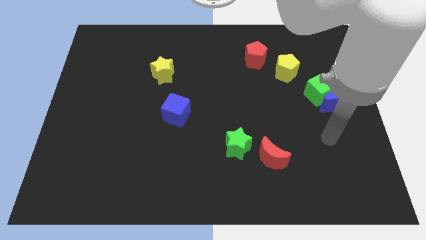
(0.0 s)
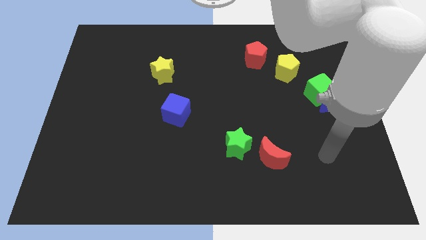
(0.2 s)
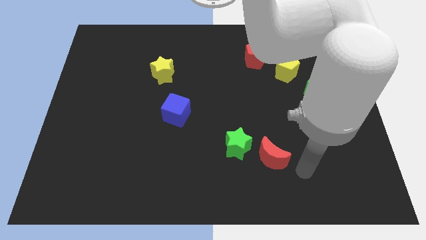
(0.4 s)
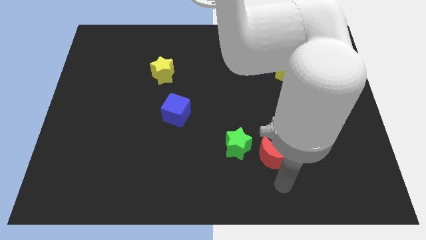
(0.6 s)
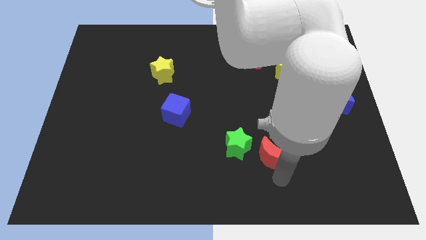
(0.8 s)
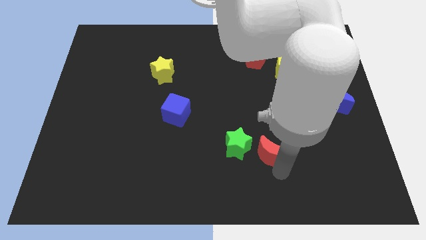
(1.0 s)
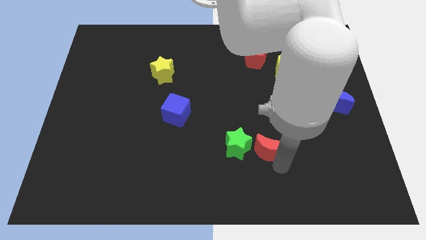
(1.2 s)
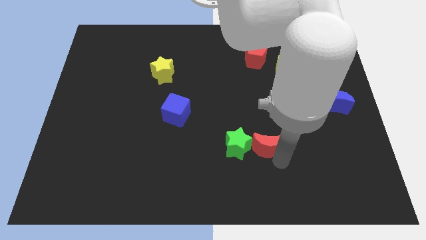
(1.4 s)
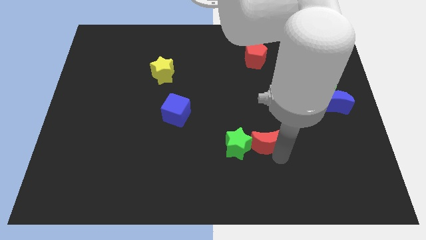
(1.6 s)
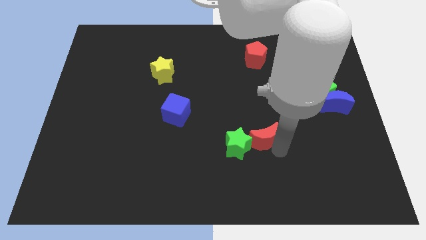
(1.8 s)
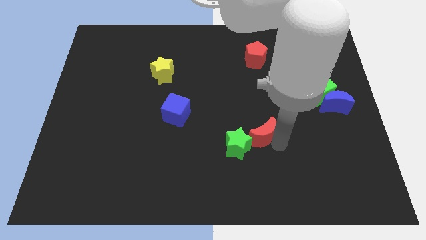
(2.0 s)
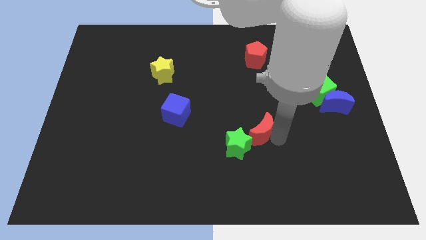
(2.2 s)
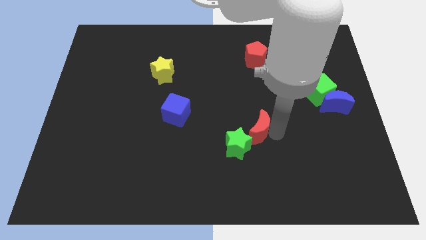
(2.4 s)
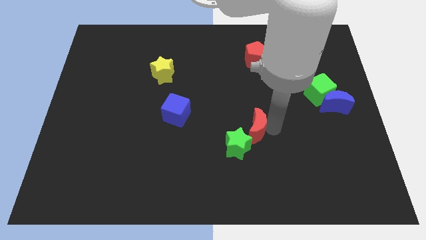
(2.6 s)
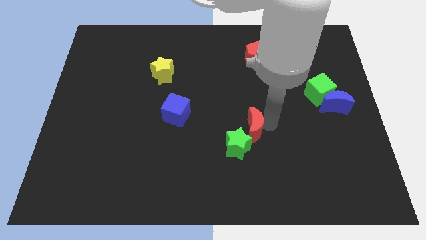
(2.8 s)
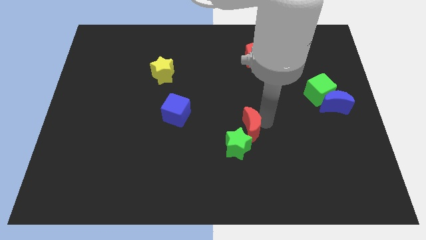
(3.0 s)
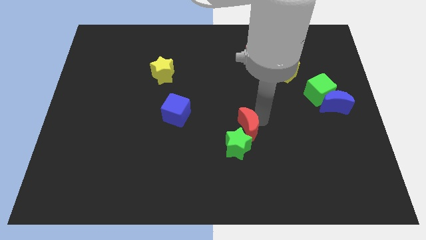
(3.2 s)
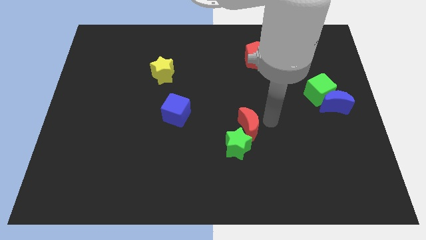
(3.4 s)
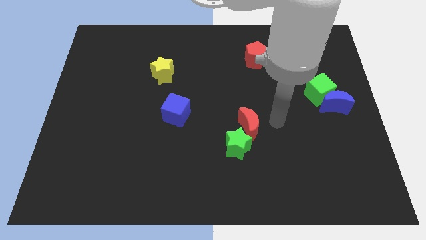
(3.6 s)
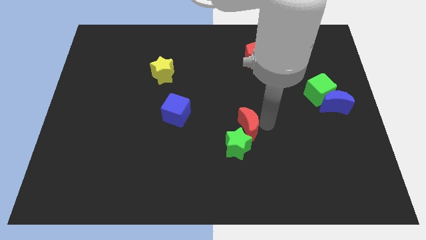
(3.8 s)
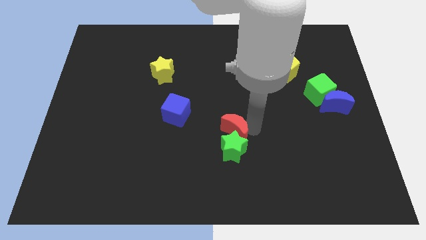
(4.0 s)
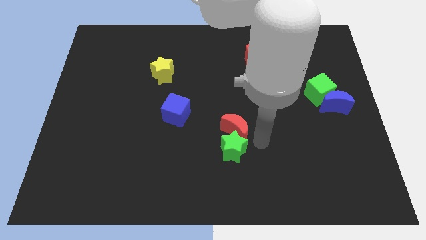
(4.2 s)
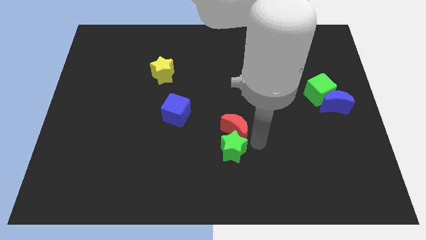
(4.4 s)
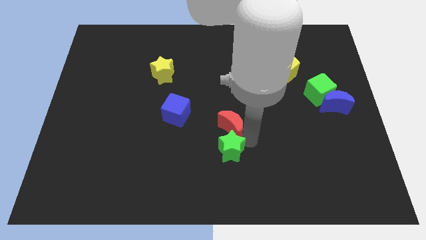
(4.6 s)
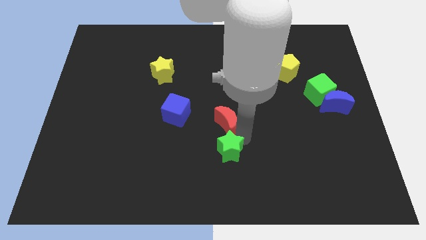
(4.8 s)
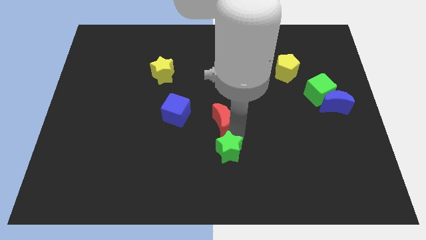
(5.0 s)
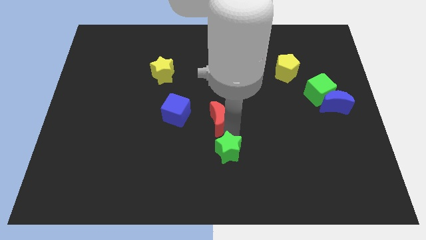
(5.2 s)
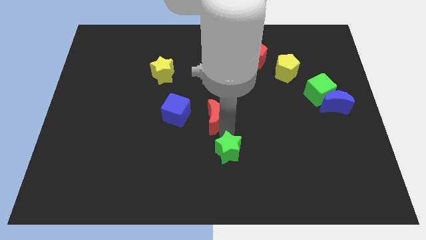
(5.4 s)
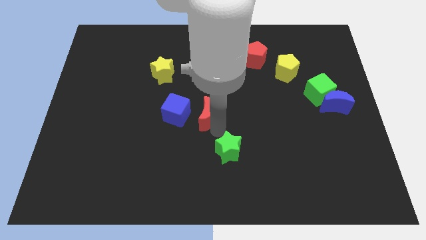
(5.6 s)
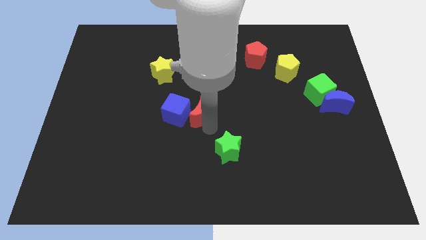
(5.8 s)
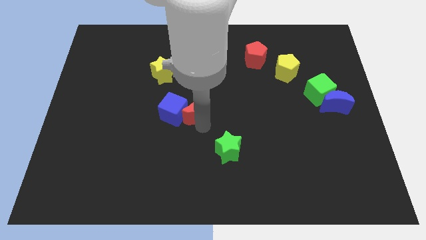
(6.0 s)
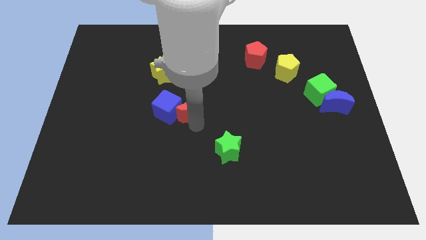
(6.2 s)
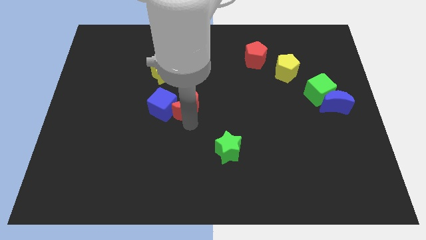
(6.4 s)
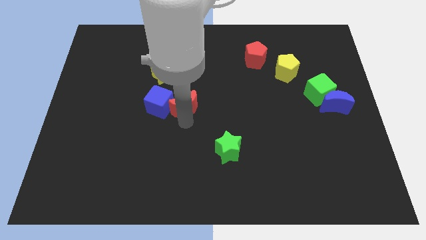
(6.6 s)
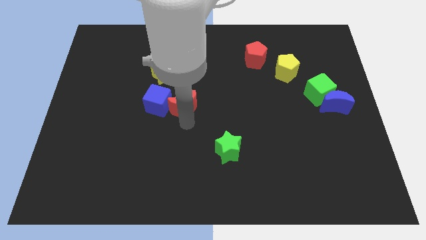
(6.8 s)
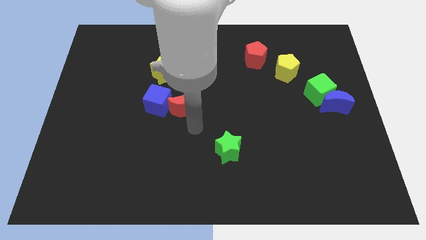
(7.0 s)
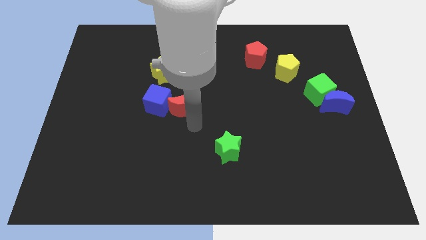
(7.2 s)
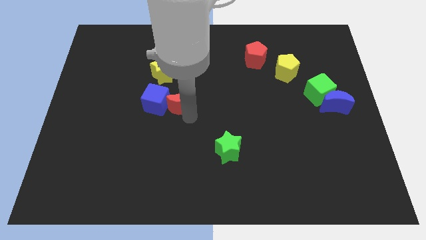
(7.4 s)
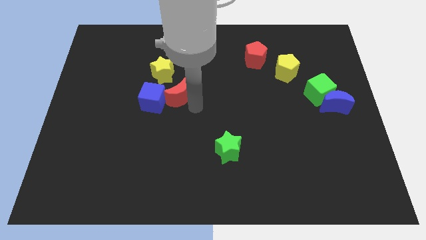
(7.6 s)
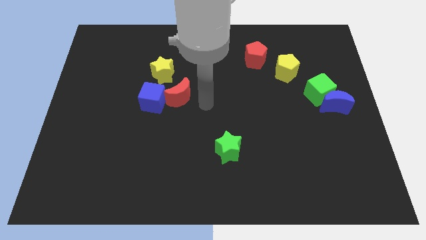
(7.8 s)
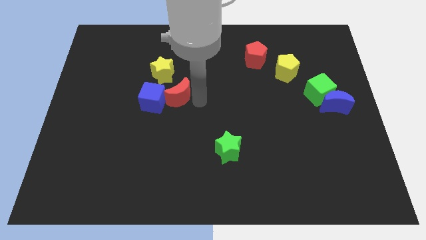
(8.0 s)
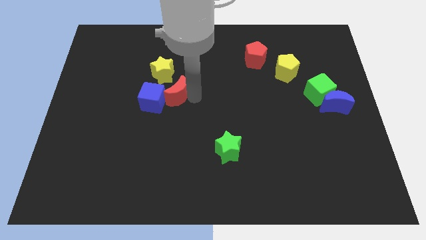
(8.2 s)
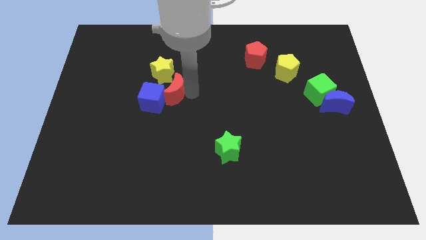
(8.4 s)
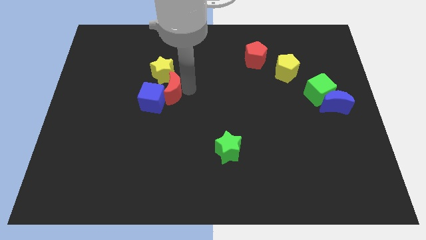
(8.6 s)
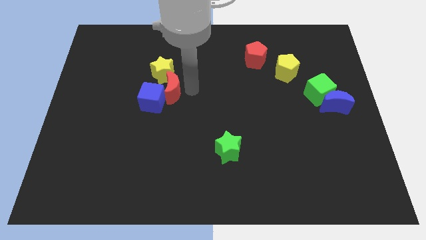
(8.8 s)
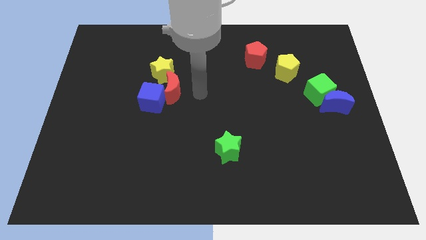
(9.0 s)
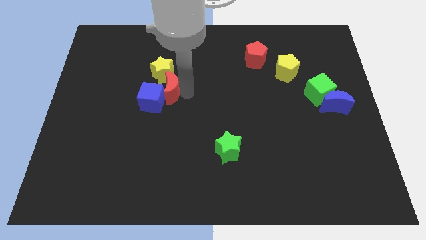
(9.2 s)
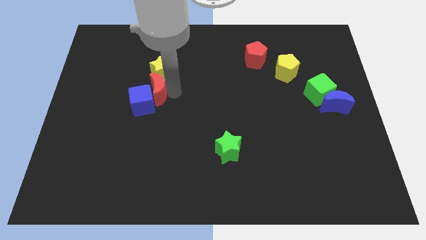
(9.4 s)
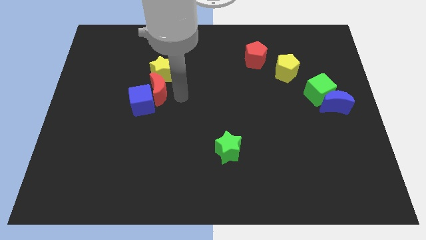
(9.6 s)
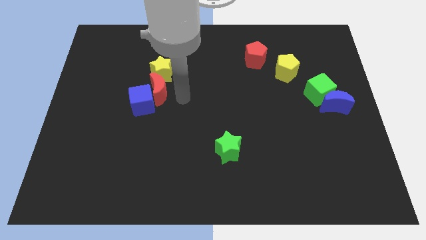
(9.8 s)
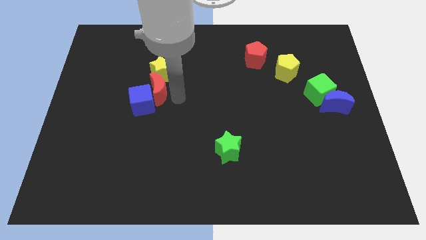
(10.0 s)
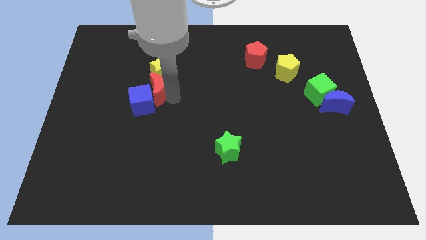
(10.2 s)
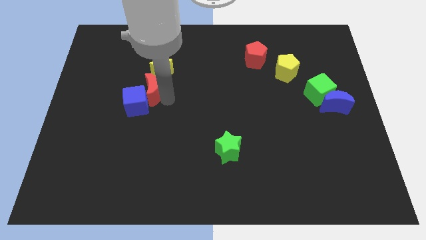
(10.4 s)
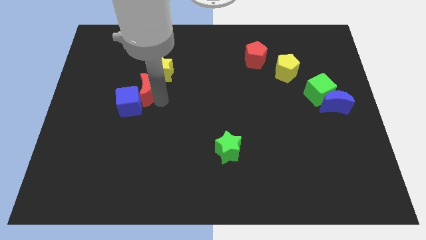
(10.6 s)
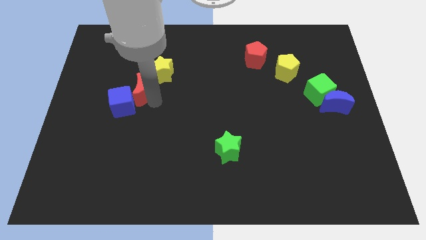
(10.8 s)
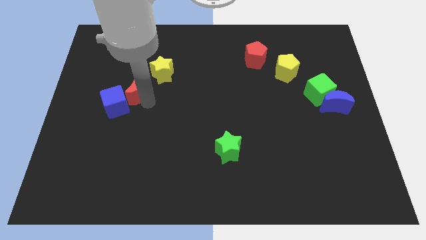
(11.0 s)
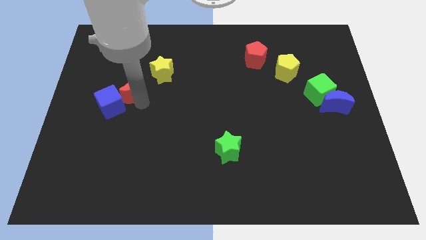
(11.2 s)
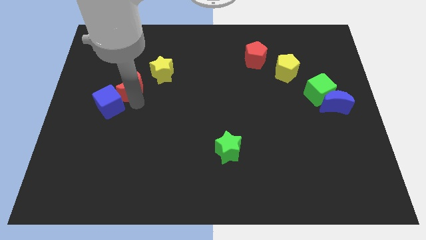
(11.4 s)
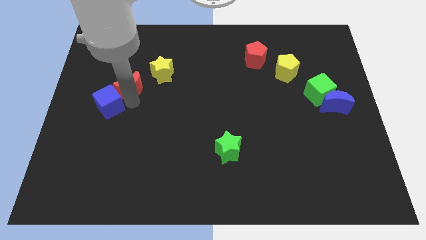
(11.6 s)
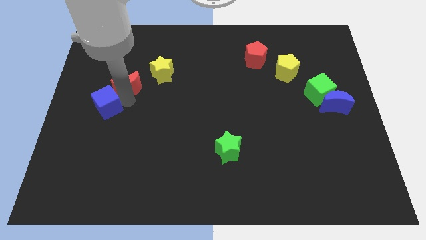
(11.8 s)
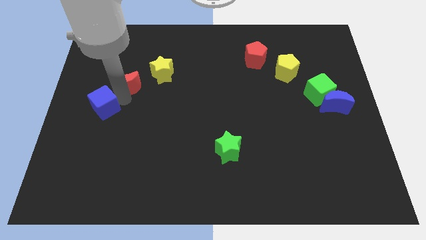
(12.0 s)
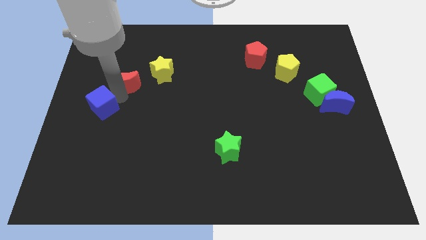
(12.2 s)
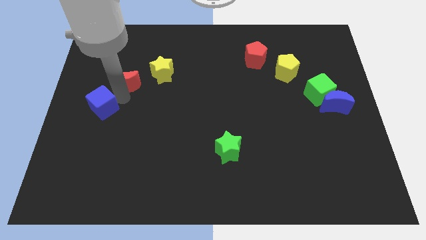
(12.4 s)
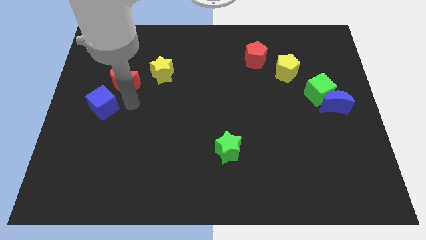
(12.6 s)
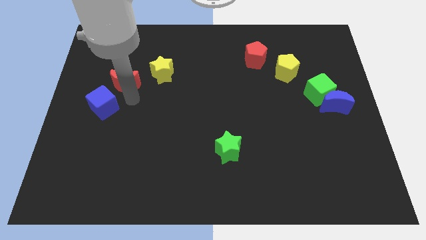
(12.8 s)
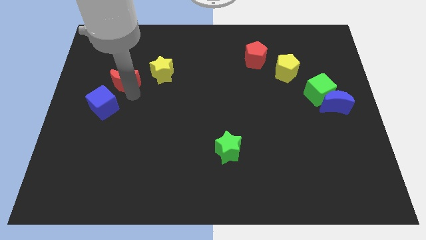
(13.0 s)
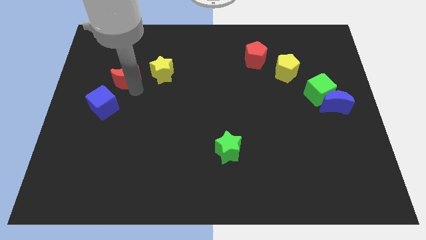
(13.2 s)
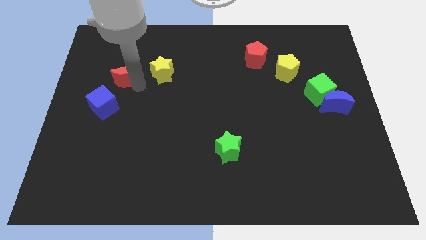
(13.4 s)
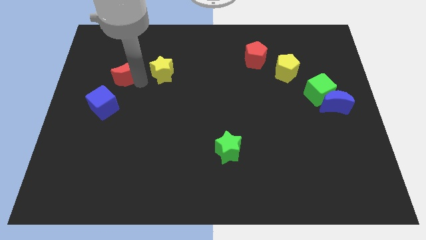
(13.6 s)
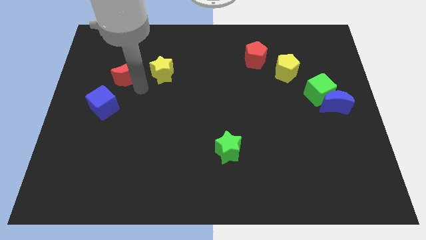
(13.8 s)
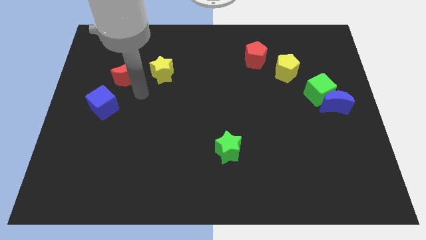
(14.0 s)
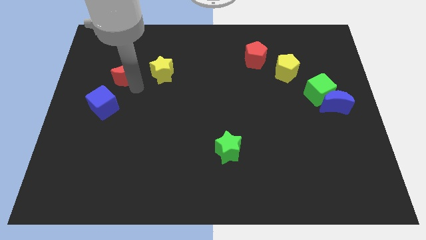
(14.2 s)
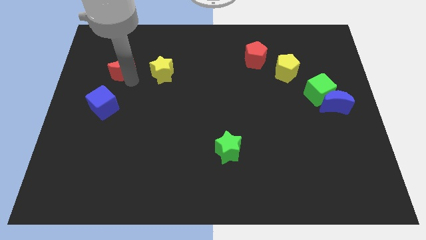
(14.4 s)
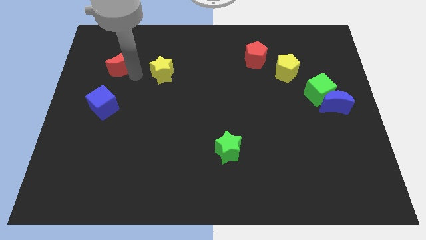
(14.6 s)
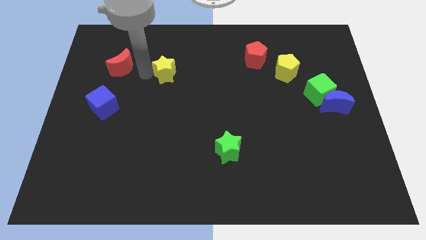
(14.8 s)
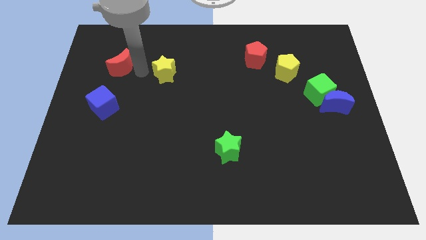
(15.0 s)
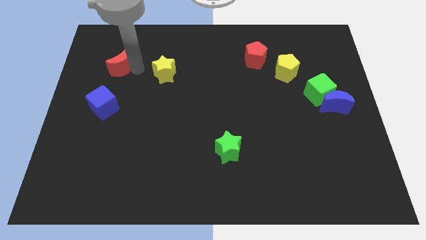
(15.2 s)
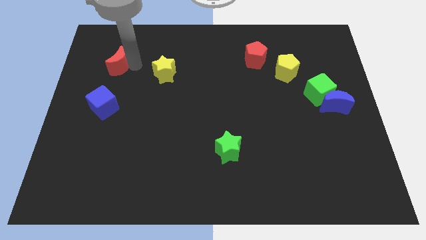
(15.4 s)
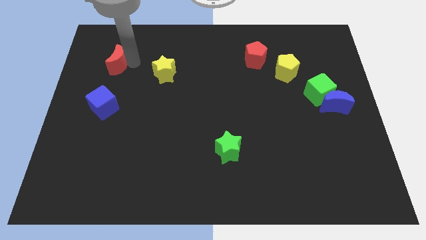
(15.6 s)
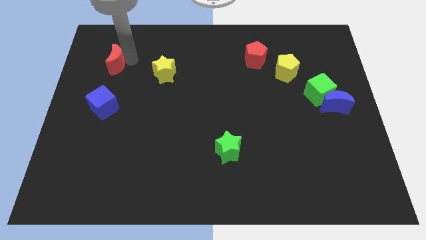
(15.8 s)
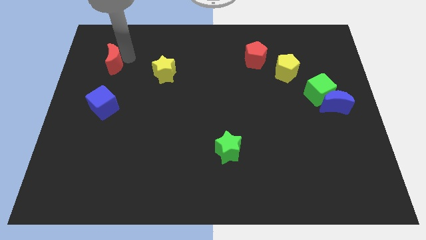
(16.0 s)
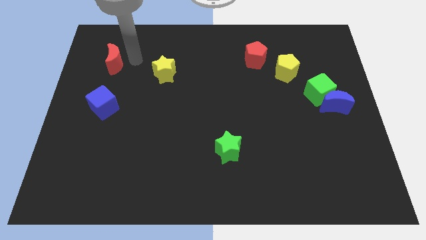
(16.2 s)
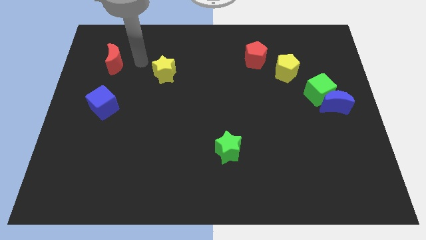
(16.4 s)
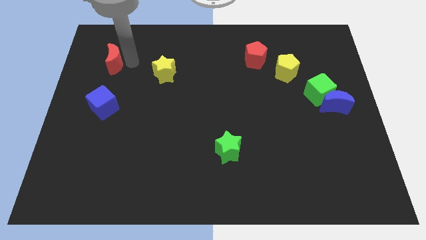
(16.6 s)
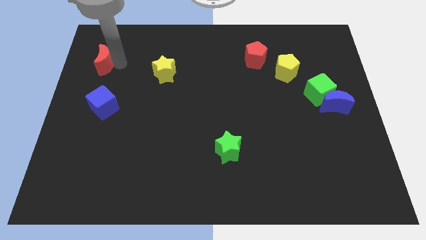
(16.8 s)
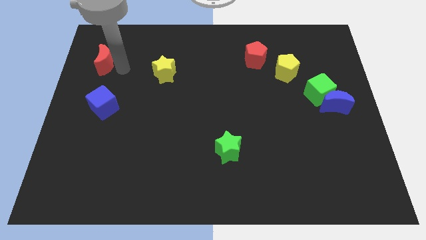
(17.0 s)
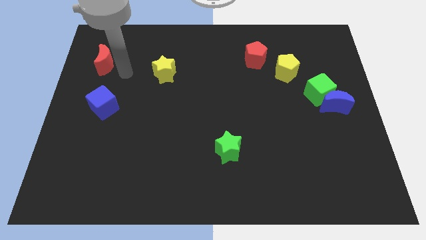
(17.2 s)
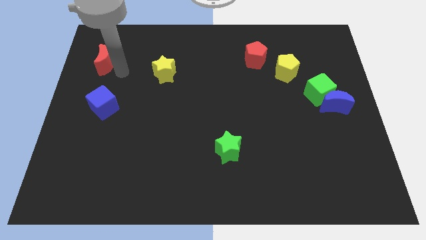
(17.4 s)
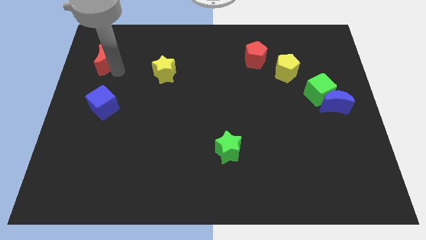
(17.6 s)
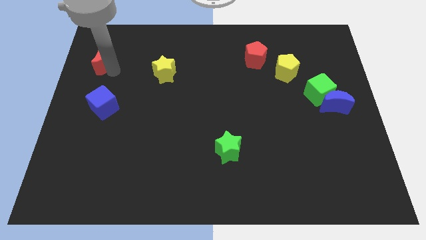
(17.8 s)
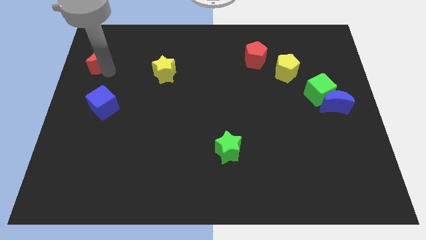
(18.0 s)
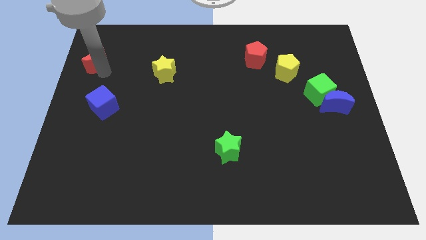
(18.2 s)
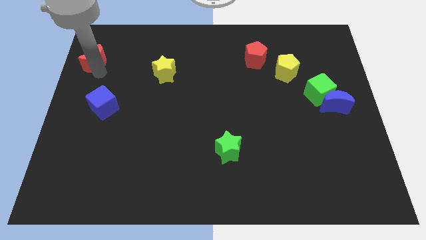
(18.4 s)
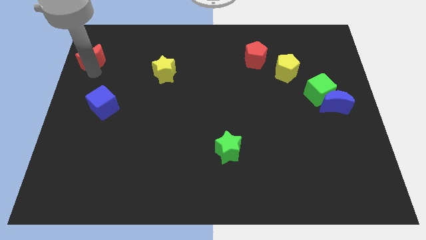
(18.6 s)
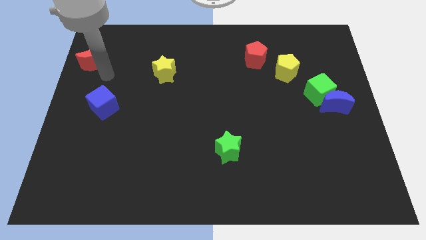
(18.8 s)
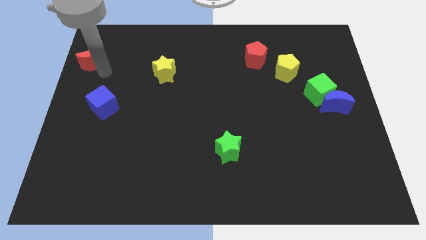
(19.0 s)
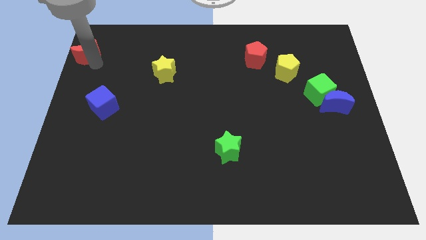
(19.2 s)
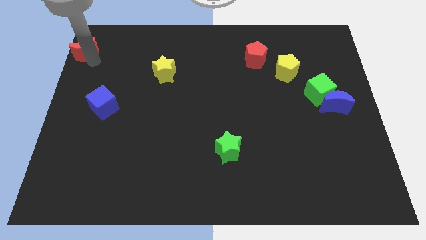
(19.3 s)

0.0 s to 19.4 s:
slide the red moon to the top left corner
